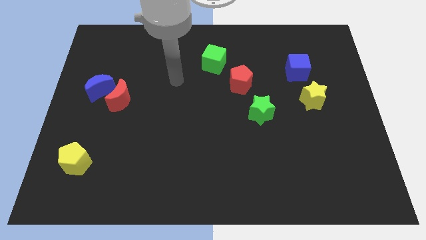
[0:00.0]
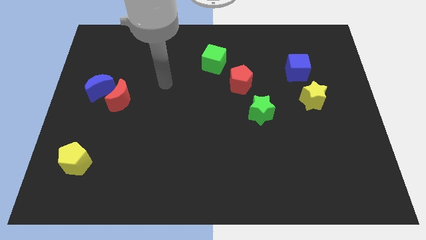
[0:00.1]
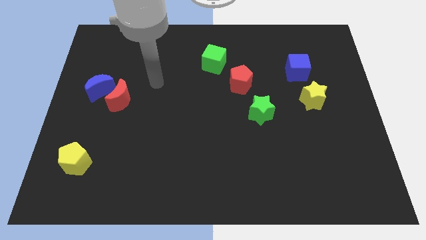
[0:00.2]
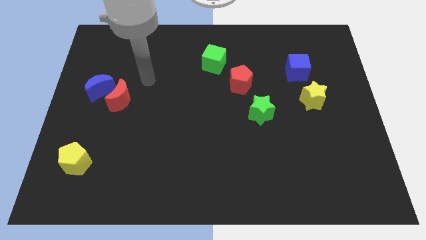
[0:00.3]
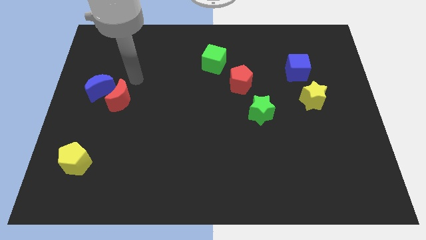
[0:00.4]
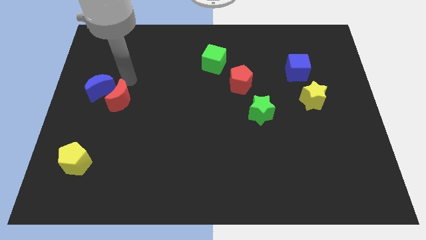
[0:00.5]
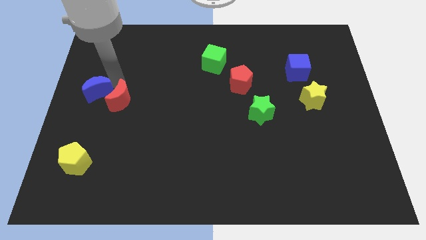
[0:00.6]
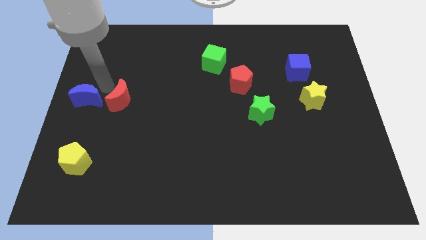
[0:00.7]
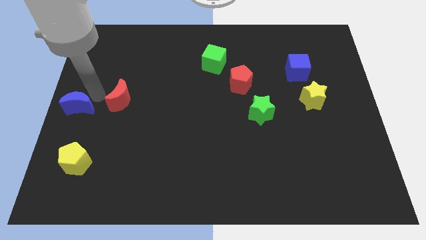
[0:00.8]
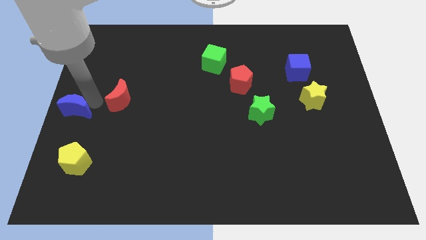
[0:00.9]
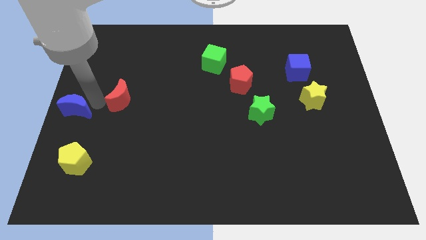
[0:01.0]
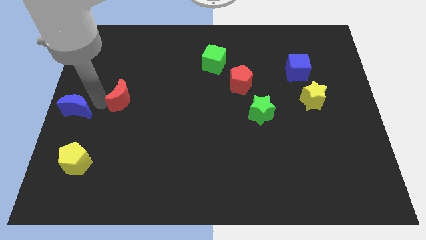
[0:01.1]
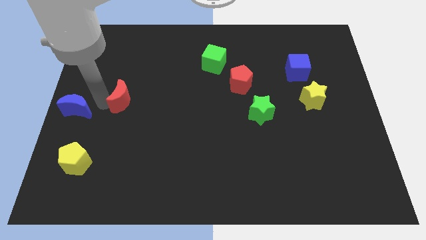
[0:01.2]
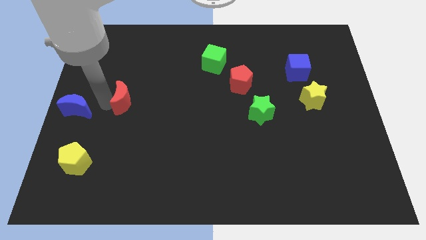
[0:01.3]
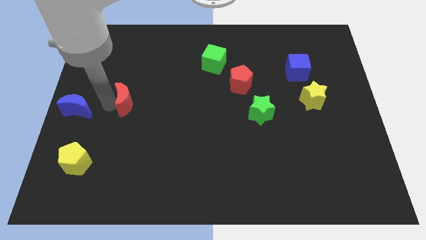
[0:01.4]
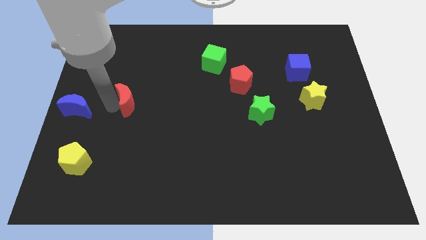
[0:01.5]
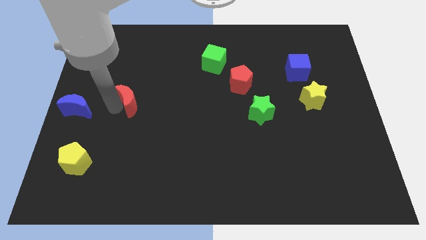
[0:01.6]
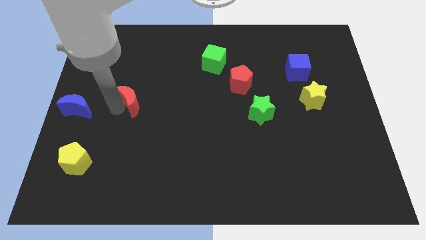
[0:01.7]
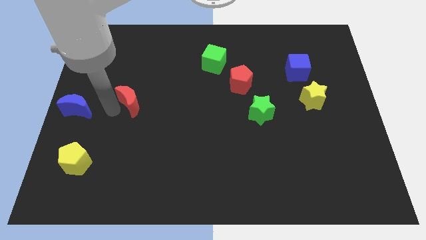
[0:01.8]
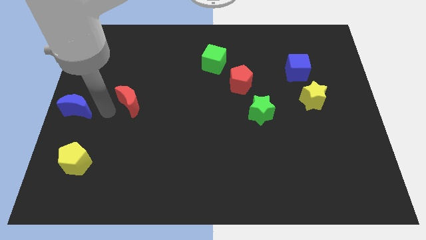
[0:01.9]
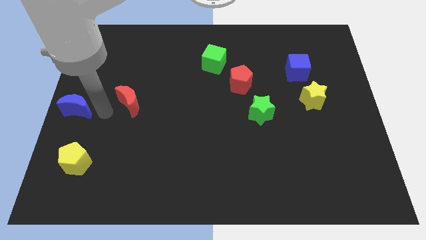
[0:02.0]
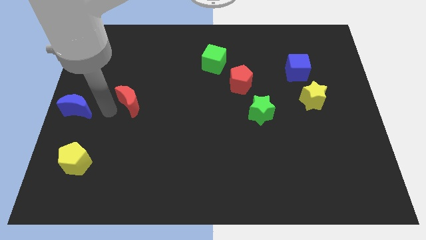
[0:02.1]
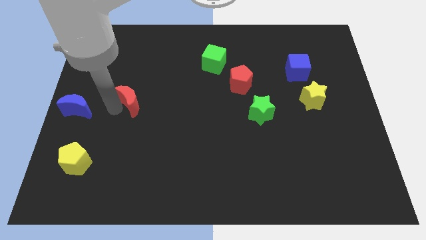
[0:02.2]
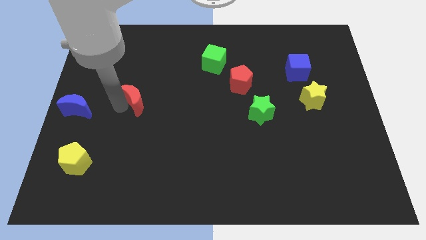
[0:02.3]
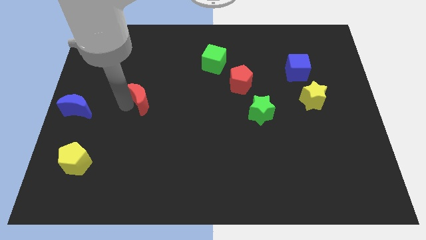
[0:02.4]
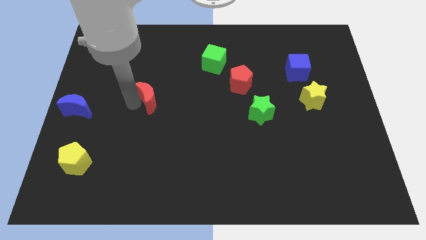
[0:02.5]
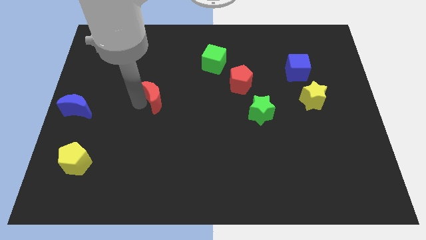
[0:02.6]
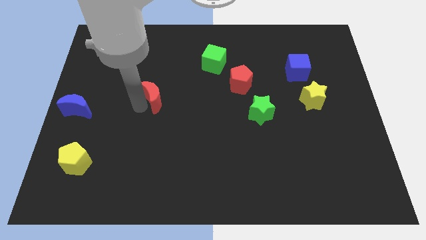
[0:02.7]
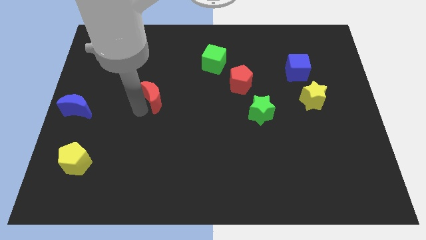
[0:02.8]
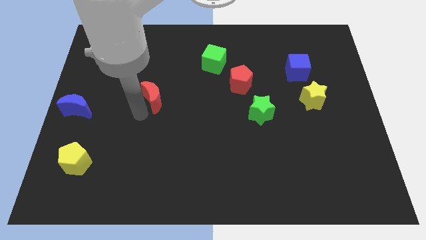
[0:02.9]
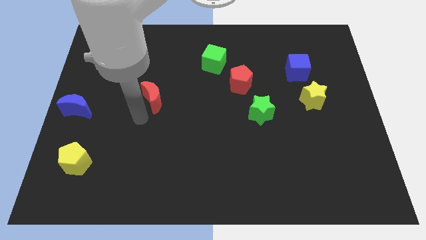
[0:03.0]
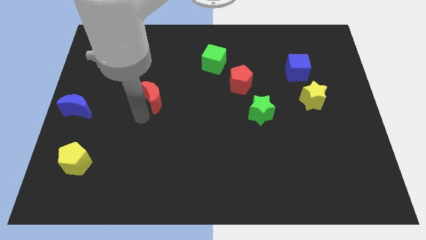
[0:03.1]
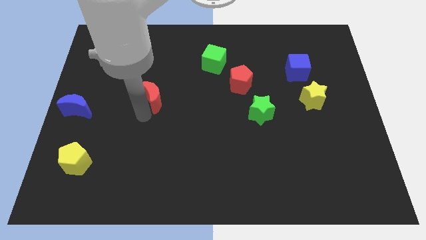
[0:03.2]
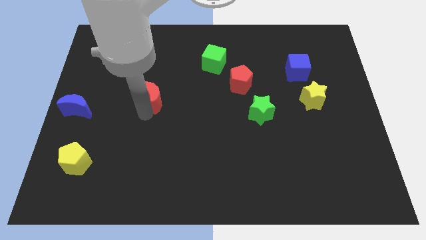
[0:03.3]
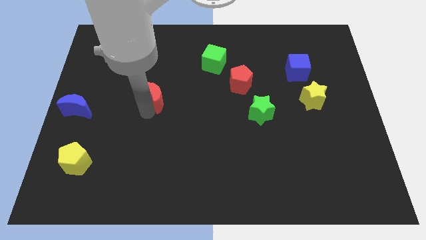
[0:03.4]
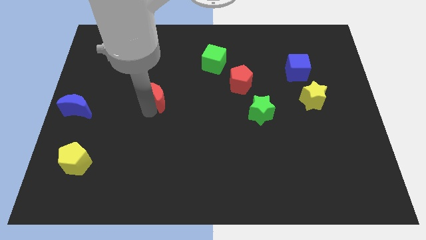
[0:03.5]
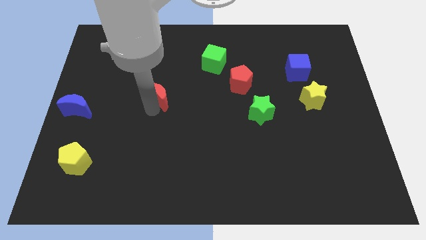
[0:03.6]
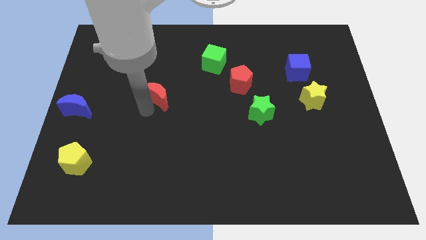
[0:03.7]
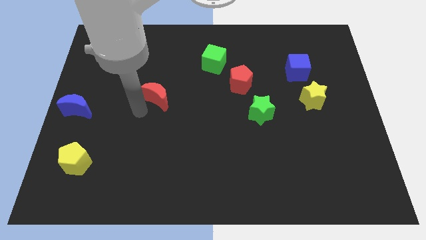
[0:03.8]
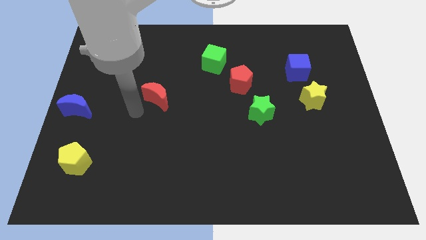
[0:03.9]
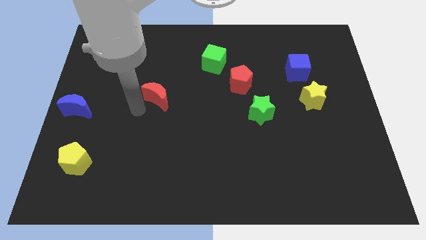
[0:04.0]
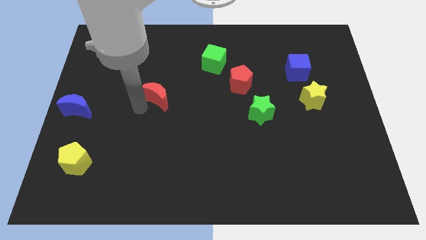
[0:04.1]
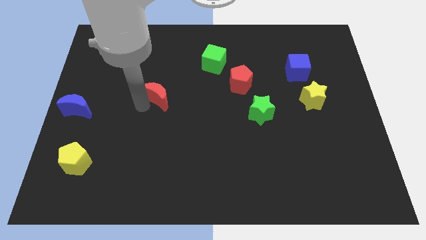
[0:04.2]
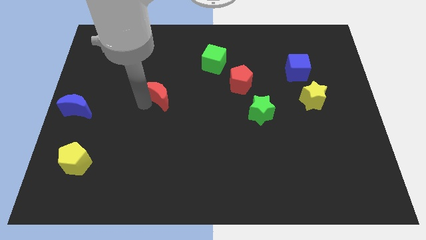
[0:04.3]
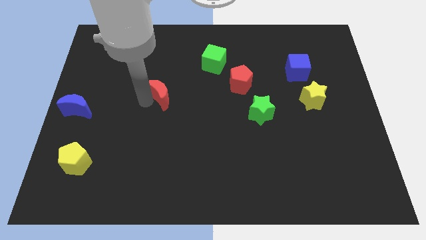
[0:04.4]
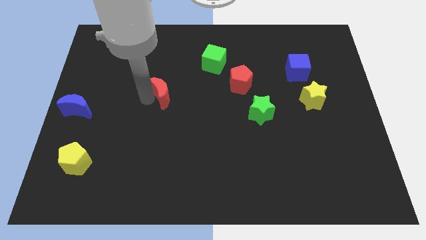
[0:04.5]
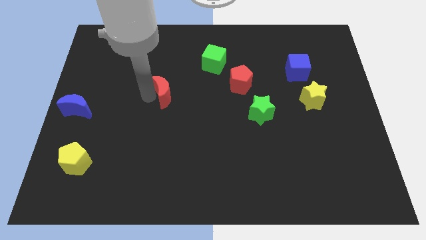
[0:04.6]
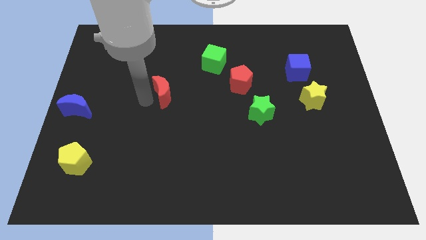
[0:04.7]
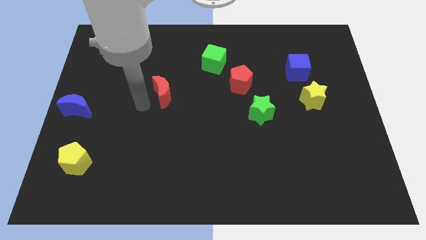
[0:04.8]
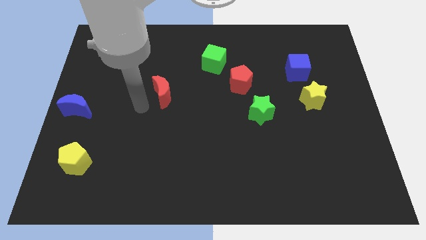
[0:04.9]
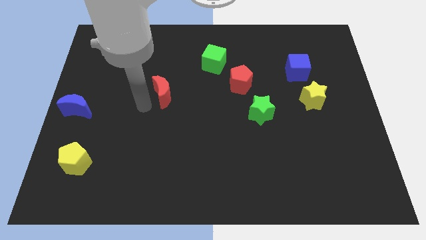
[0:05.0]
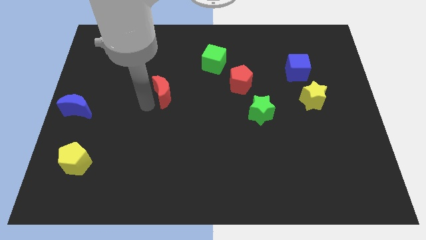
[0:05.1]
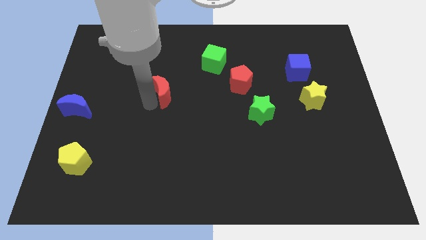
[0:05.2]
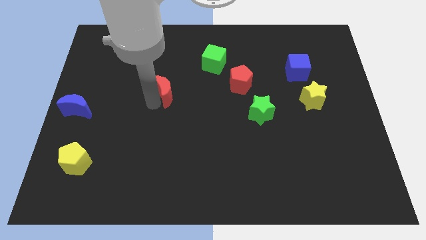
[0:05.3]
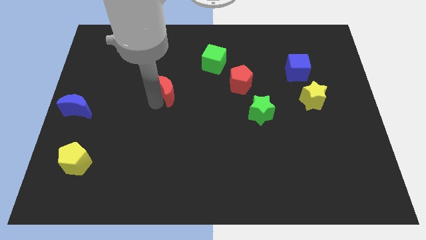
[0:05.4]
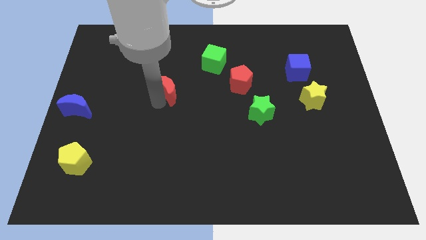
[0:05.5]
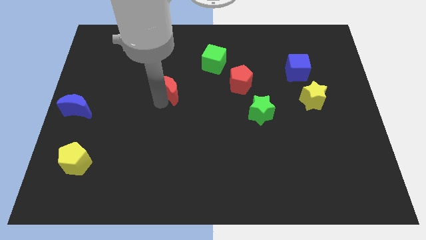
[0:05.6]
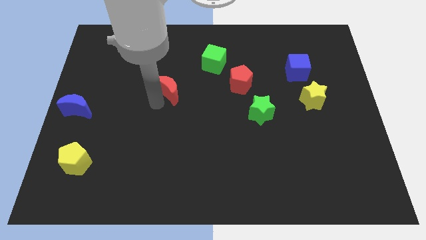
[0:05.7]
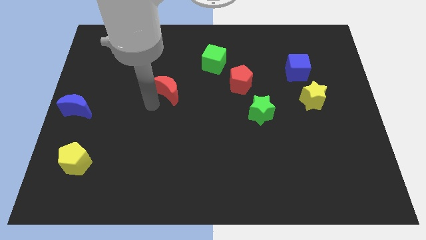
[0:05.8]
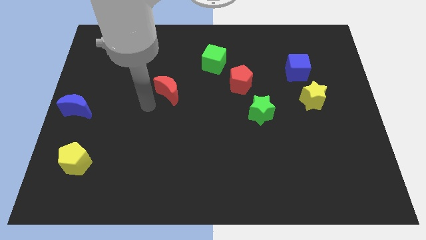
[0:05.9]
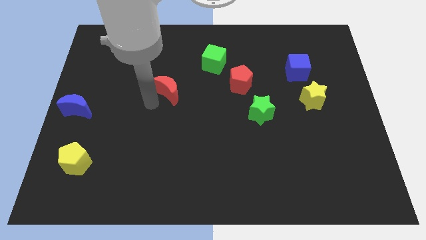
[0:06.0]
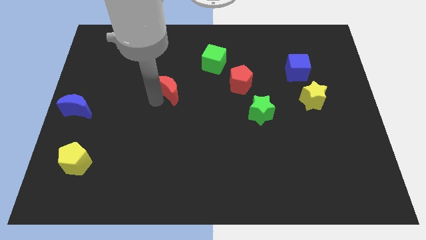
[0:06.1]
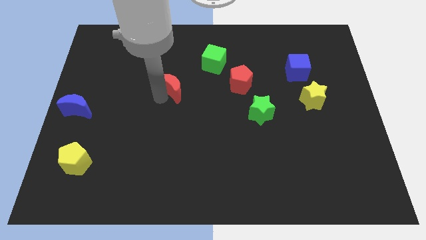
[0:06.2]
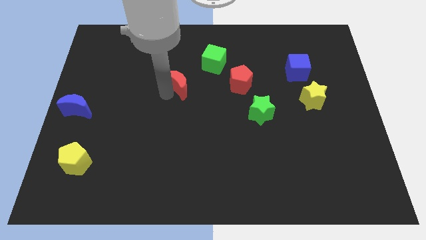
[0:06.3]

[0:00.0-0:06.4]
slide the red moon to the bottom left side of the green cube

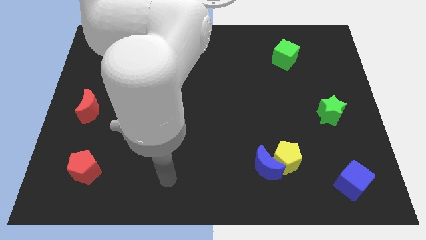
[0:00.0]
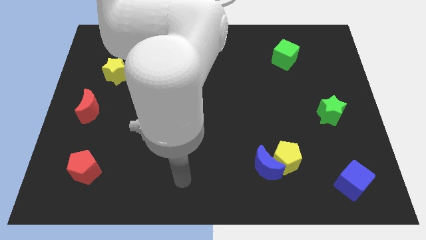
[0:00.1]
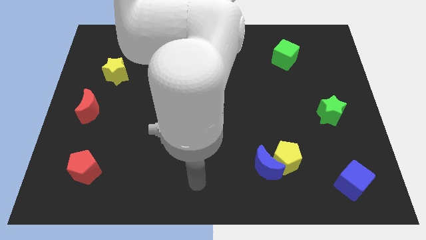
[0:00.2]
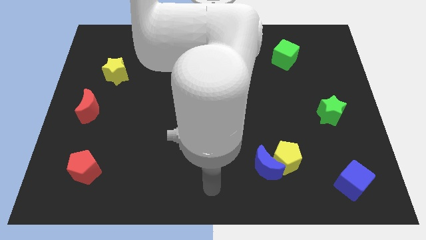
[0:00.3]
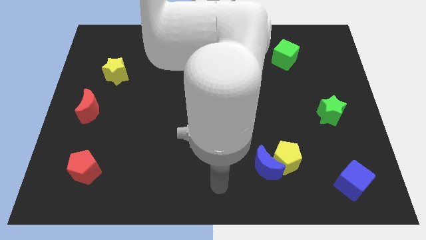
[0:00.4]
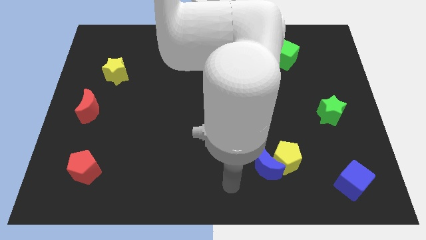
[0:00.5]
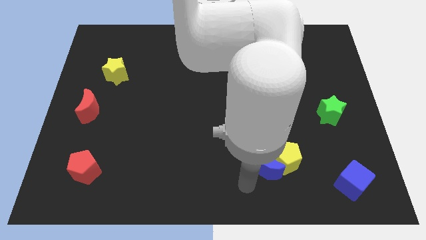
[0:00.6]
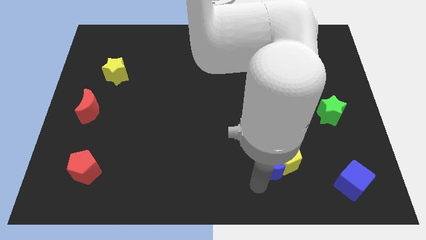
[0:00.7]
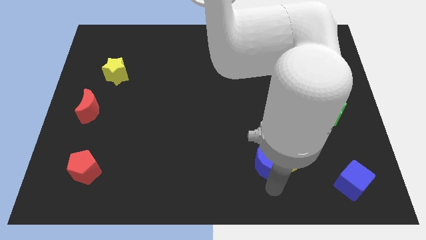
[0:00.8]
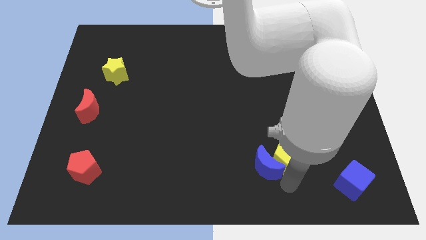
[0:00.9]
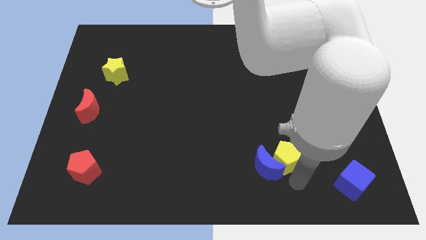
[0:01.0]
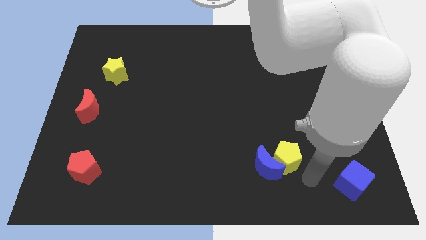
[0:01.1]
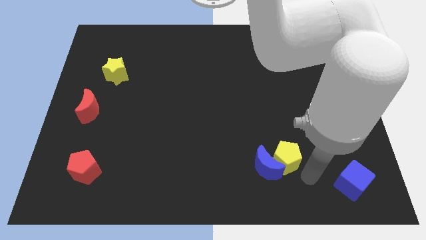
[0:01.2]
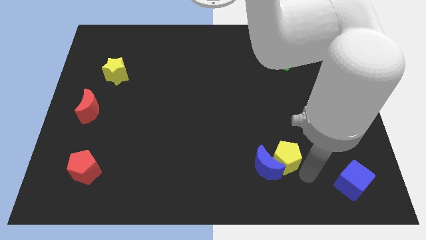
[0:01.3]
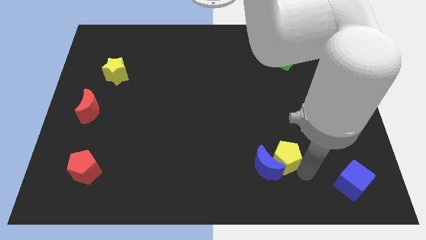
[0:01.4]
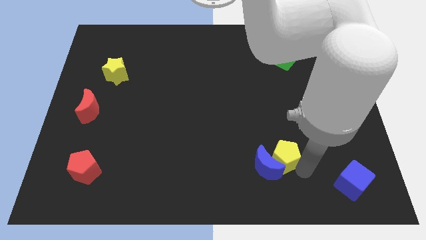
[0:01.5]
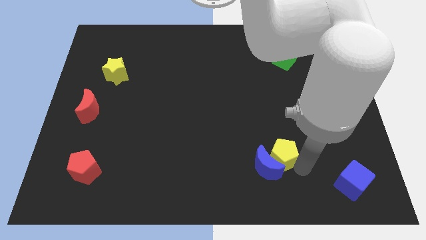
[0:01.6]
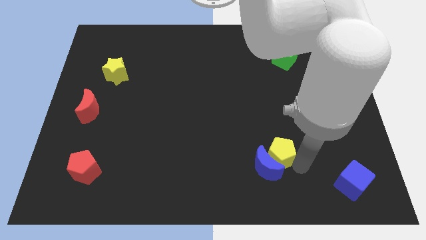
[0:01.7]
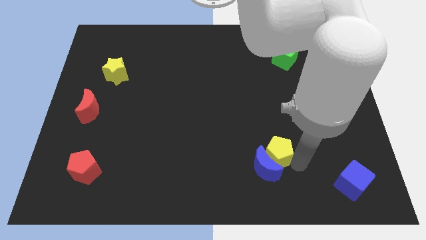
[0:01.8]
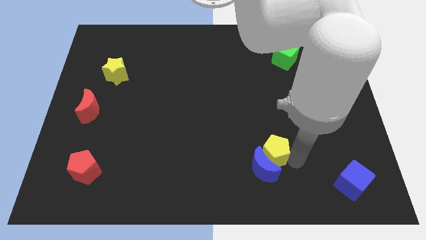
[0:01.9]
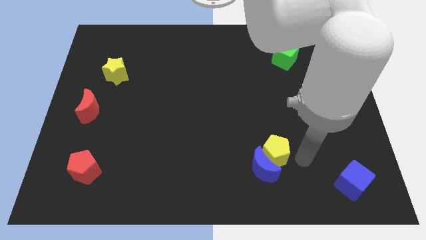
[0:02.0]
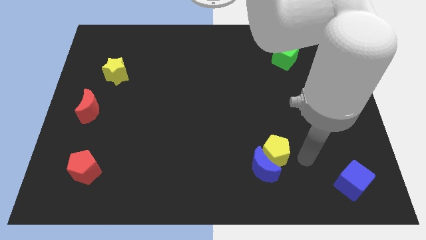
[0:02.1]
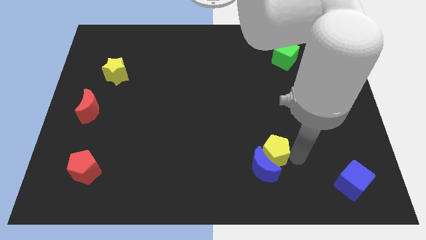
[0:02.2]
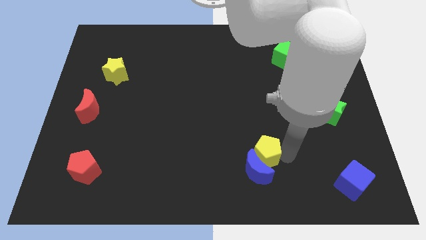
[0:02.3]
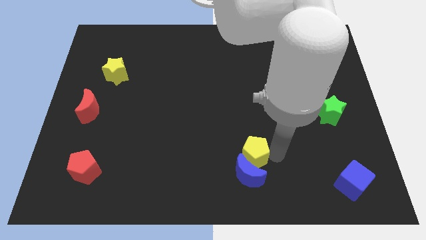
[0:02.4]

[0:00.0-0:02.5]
put the yellow pentagon diagonally up and to the left of the blue moon
